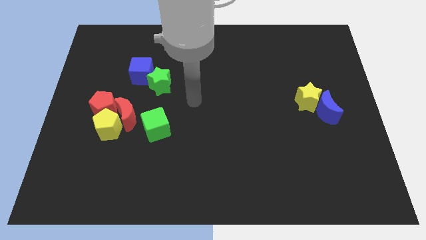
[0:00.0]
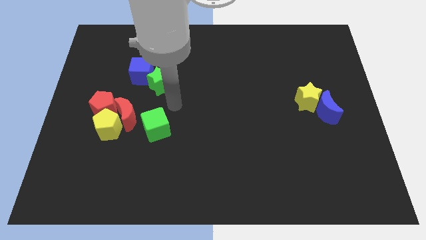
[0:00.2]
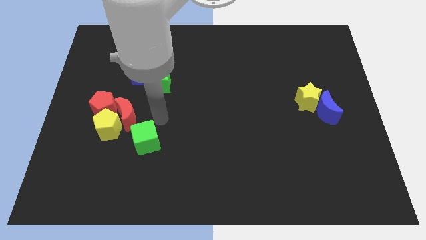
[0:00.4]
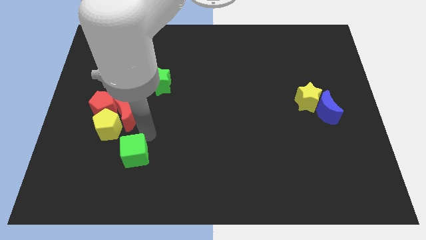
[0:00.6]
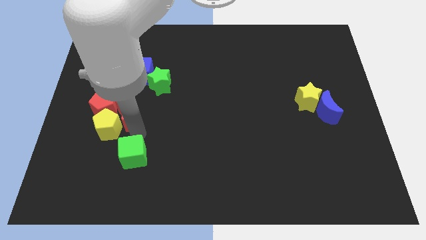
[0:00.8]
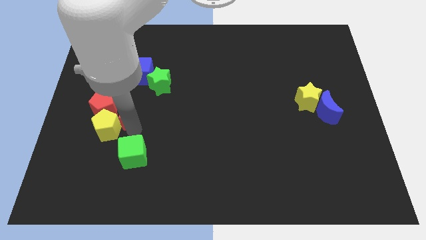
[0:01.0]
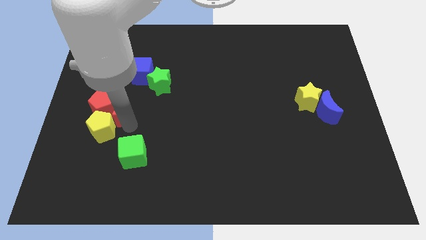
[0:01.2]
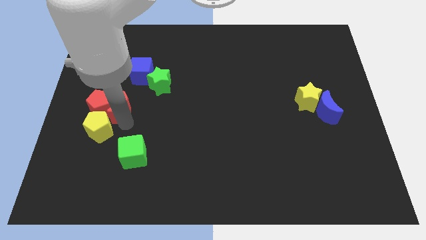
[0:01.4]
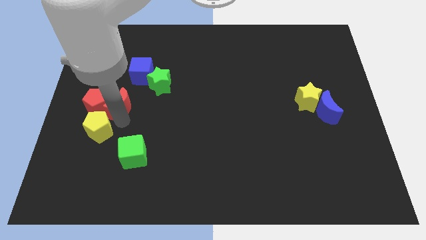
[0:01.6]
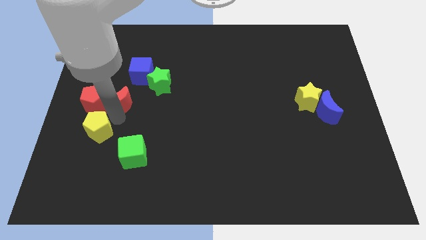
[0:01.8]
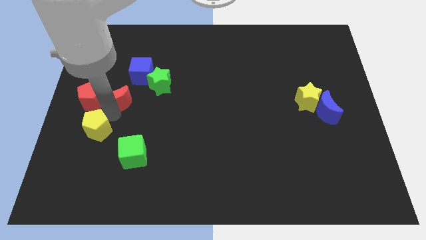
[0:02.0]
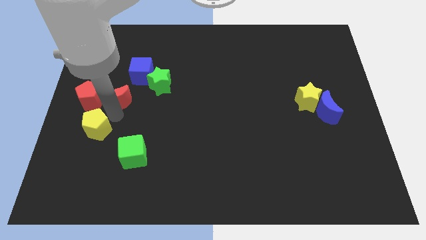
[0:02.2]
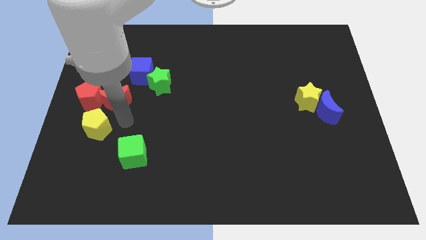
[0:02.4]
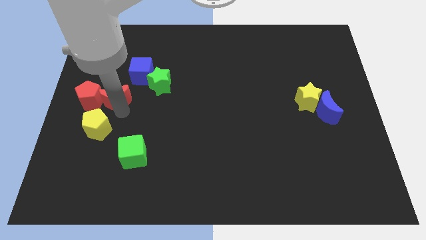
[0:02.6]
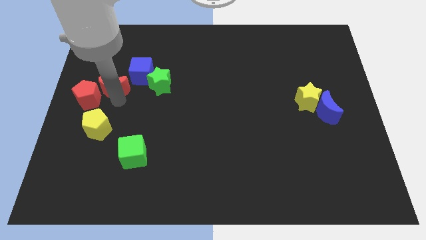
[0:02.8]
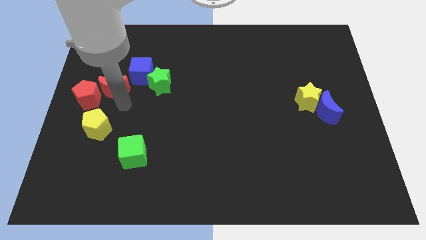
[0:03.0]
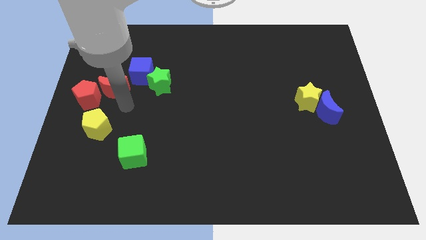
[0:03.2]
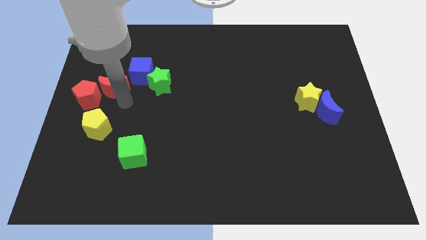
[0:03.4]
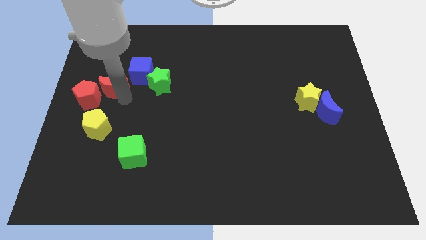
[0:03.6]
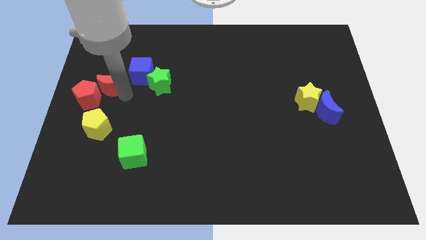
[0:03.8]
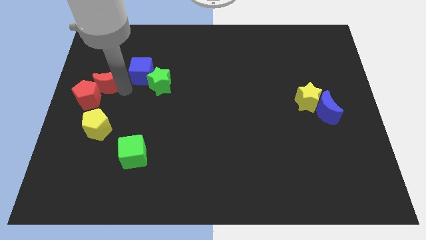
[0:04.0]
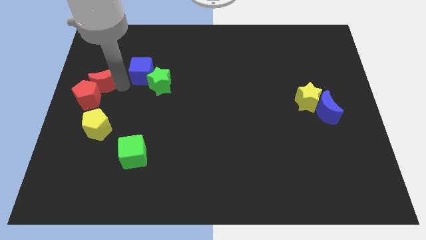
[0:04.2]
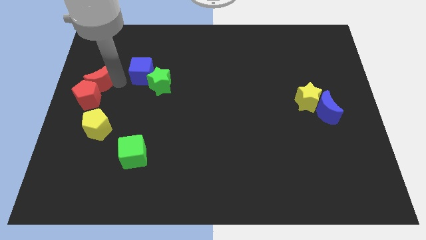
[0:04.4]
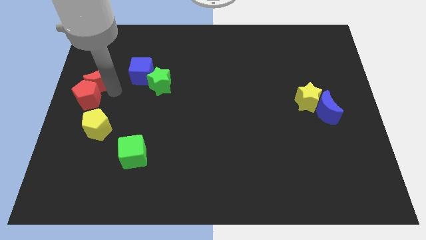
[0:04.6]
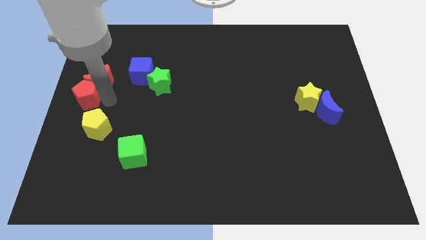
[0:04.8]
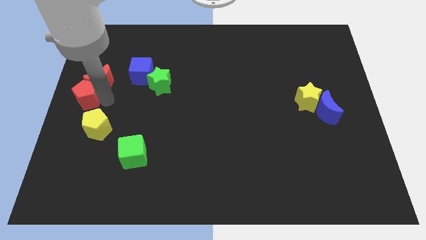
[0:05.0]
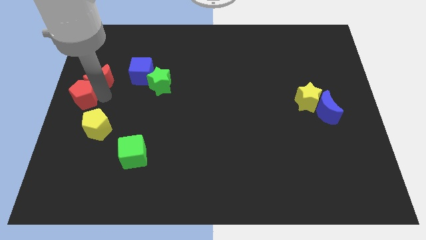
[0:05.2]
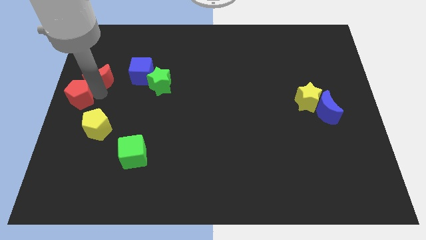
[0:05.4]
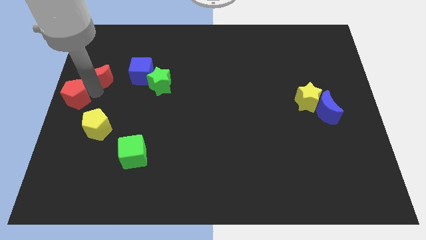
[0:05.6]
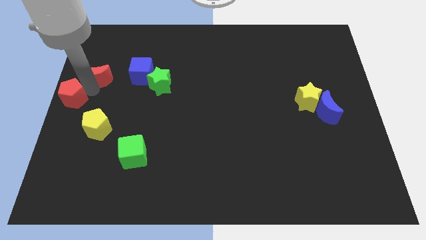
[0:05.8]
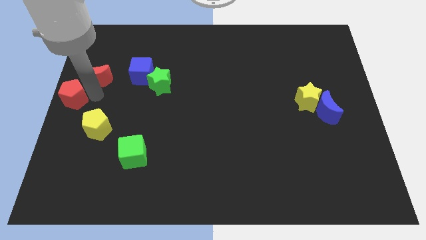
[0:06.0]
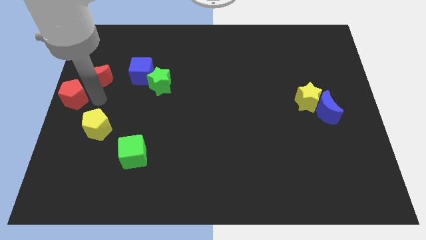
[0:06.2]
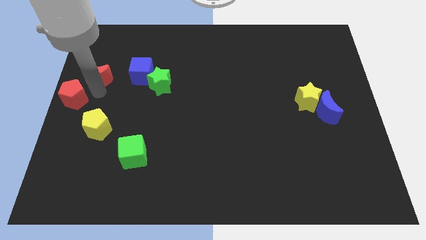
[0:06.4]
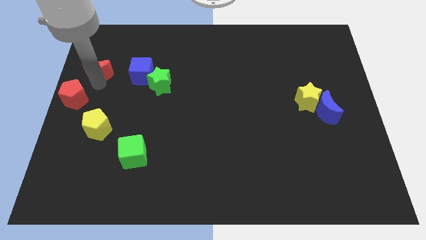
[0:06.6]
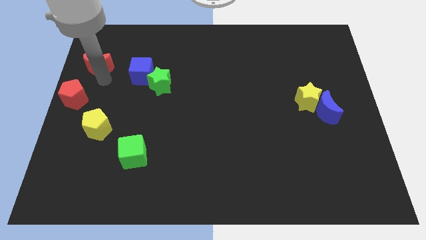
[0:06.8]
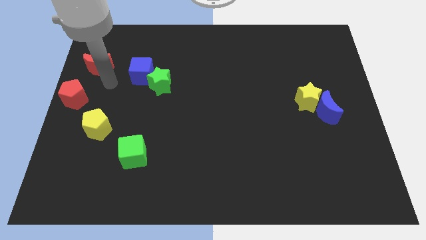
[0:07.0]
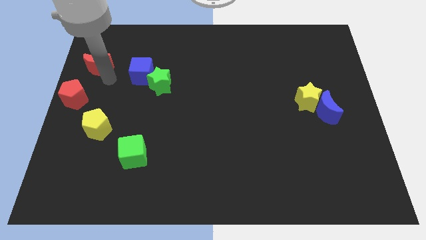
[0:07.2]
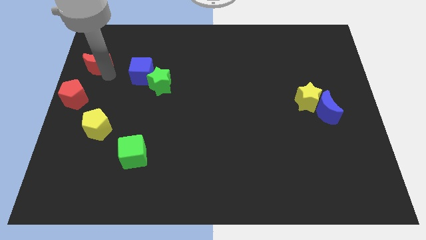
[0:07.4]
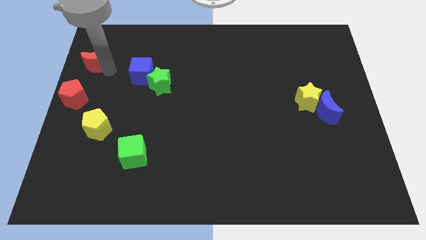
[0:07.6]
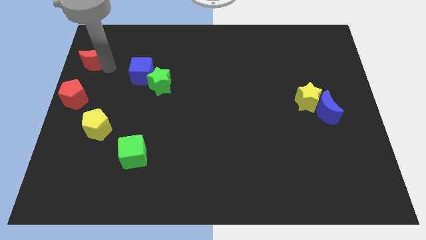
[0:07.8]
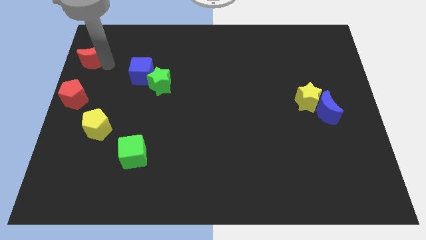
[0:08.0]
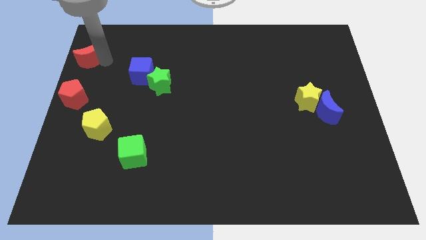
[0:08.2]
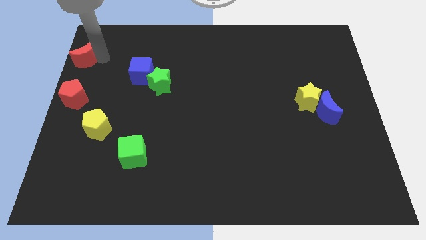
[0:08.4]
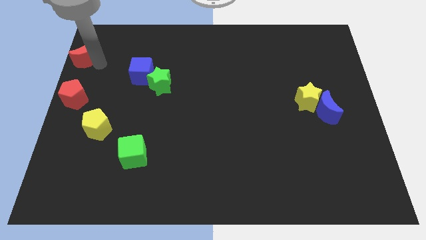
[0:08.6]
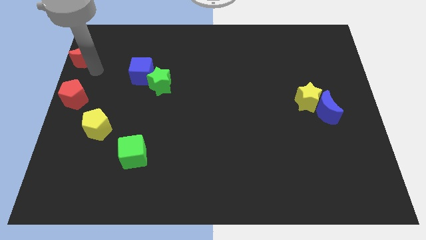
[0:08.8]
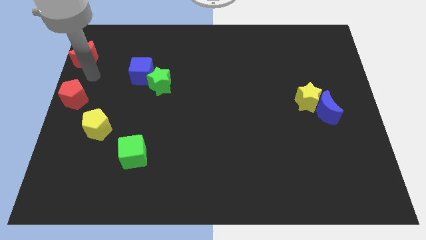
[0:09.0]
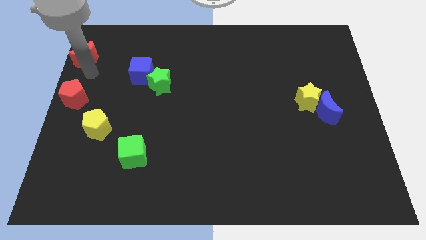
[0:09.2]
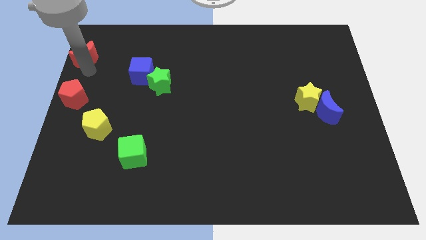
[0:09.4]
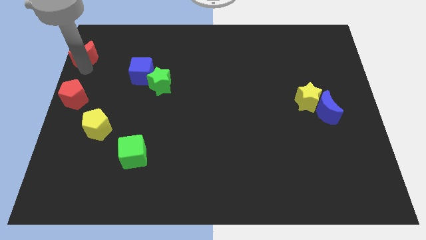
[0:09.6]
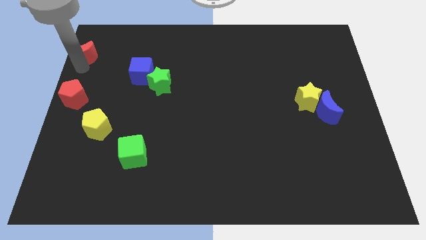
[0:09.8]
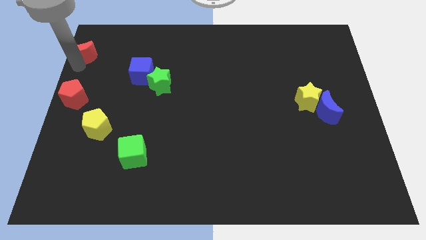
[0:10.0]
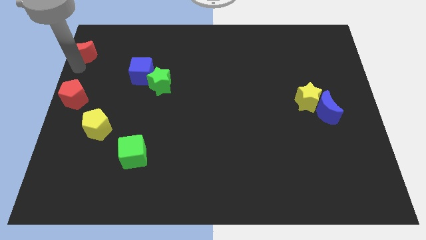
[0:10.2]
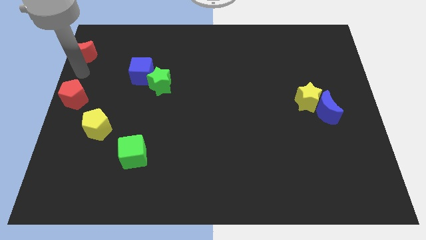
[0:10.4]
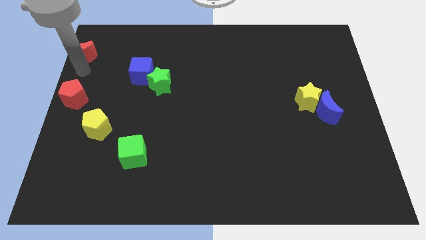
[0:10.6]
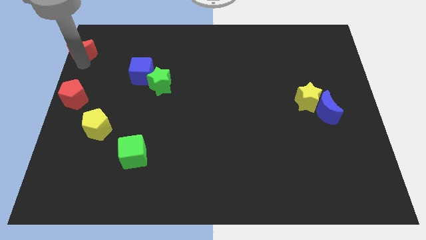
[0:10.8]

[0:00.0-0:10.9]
slide the red moon to the top left corner

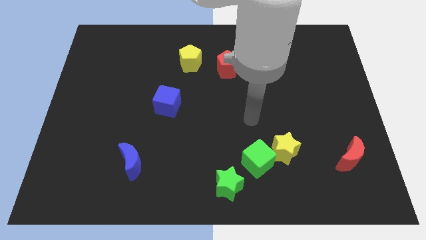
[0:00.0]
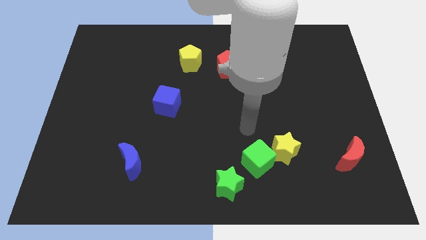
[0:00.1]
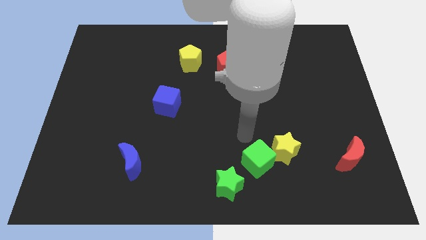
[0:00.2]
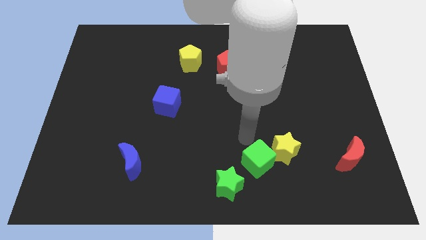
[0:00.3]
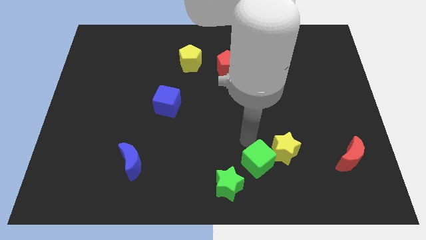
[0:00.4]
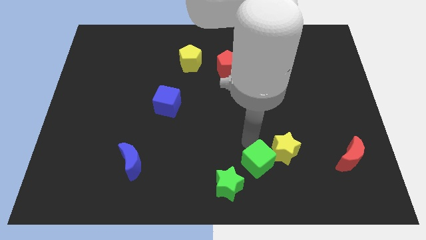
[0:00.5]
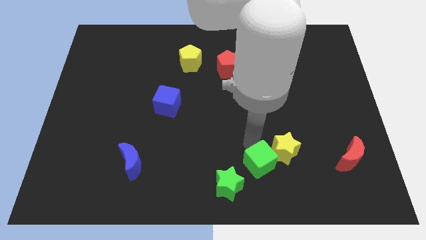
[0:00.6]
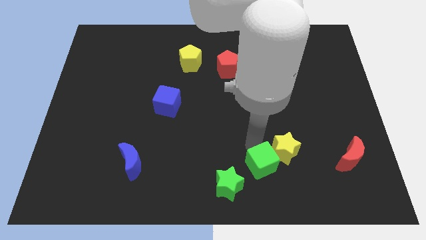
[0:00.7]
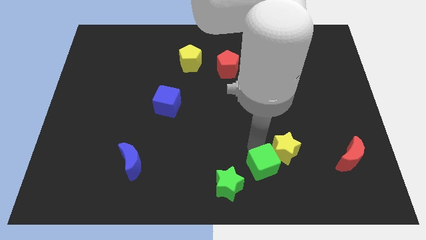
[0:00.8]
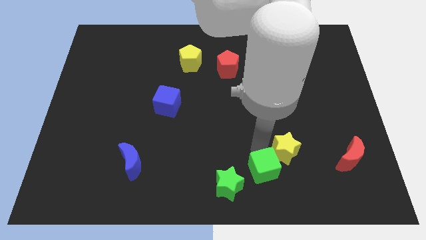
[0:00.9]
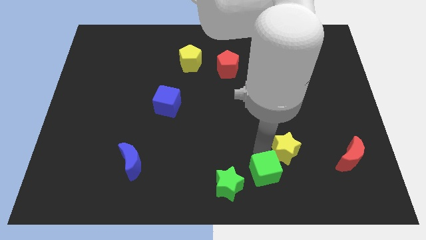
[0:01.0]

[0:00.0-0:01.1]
move the green cube to the bottom side
